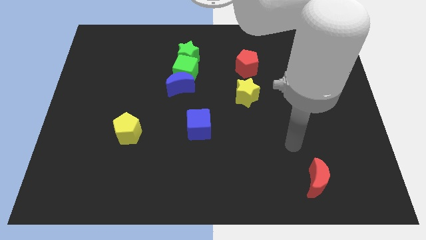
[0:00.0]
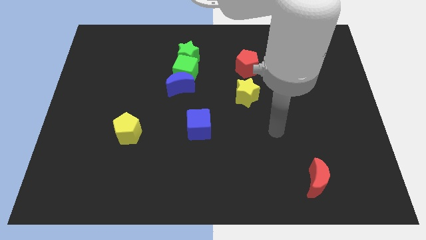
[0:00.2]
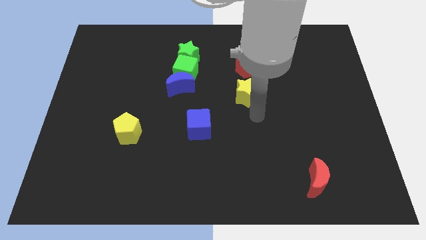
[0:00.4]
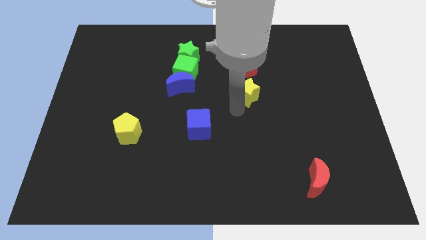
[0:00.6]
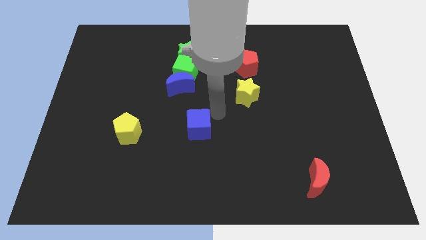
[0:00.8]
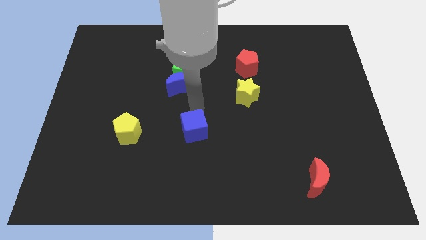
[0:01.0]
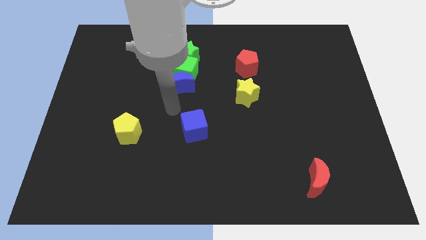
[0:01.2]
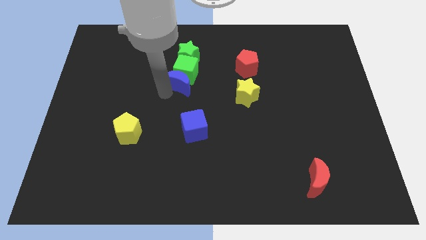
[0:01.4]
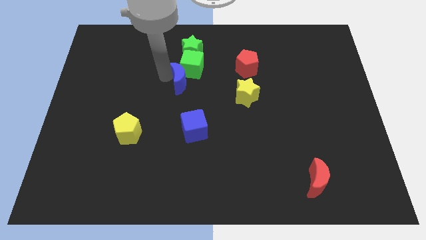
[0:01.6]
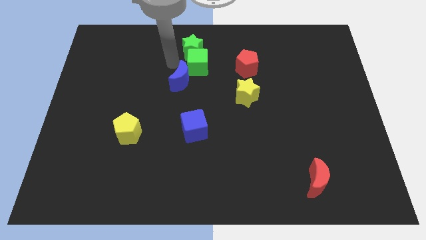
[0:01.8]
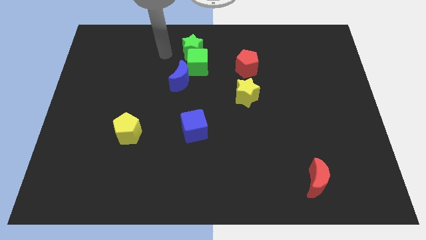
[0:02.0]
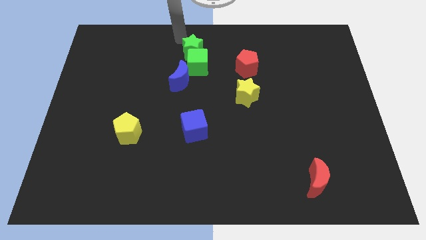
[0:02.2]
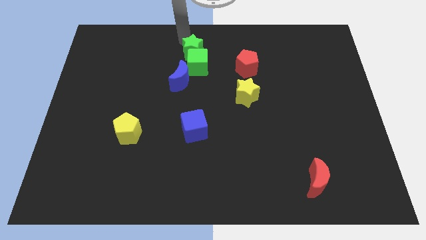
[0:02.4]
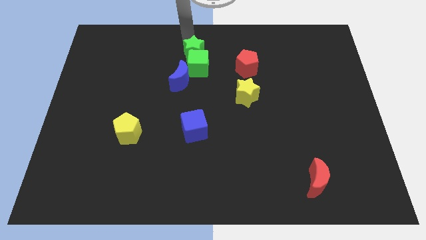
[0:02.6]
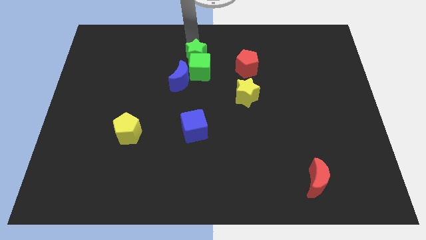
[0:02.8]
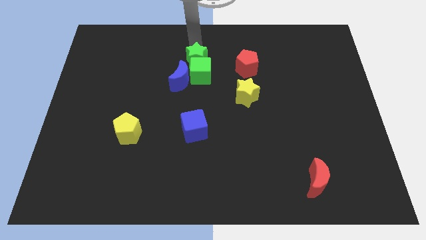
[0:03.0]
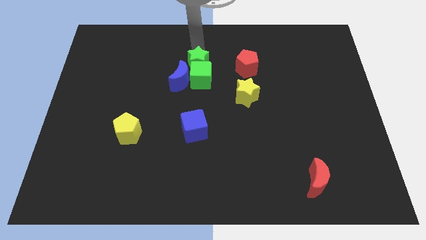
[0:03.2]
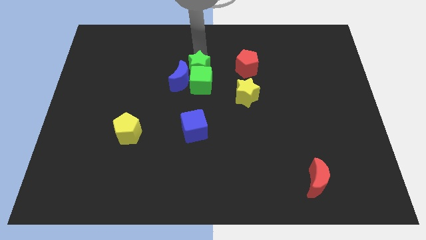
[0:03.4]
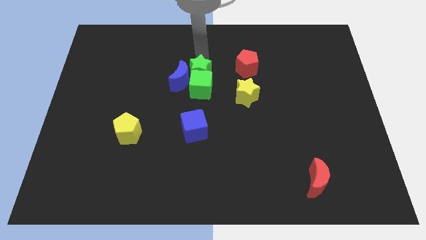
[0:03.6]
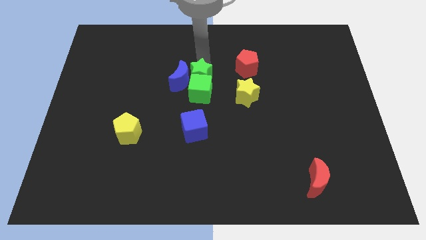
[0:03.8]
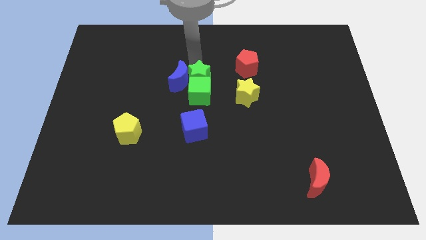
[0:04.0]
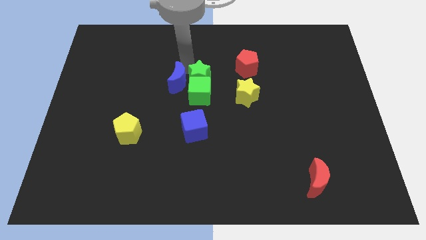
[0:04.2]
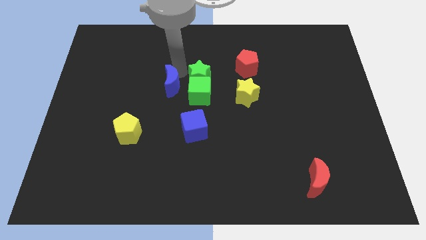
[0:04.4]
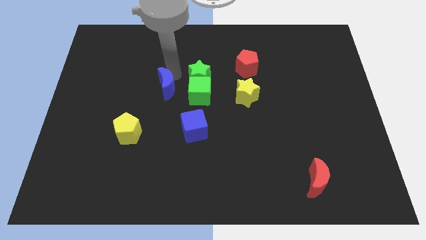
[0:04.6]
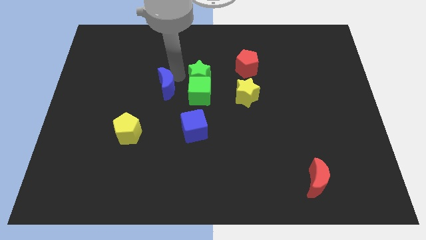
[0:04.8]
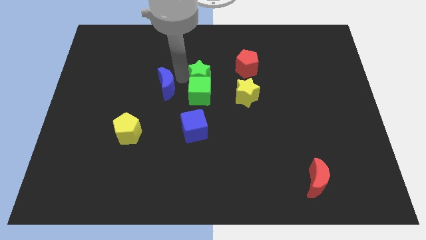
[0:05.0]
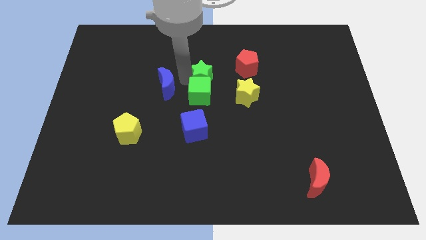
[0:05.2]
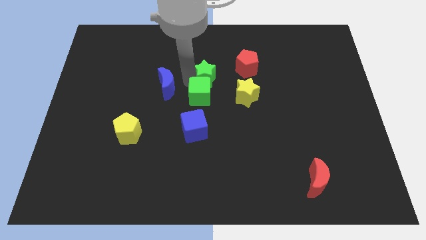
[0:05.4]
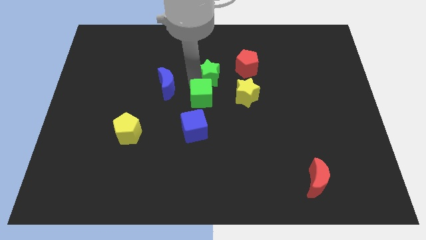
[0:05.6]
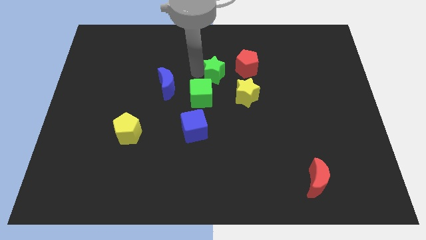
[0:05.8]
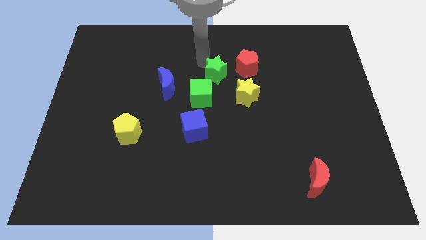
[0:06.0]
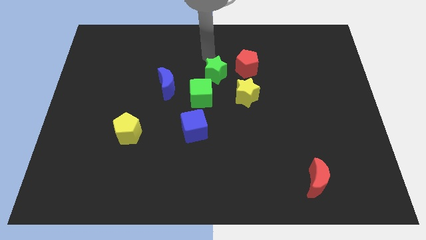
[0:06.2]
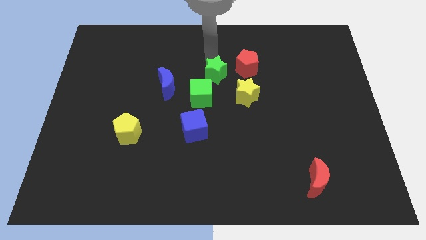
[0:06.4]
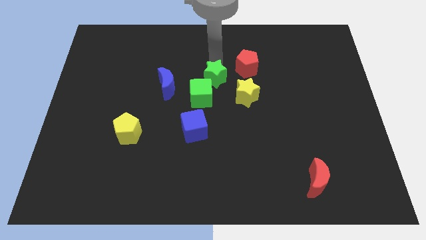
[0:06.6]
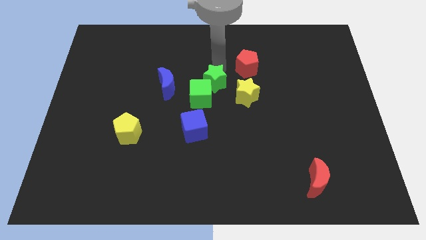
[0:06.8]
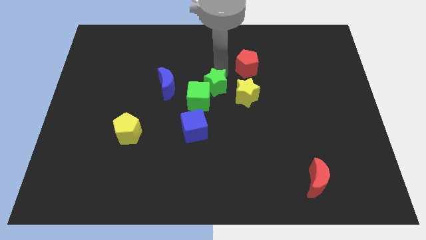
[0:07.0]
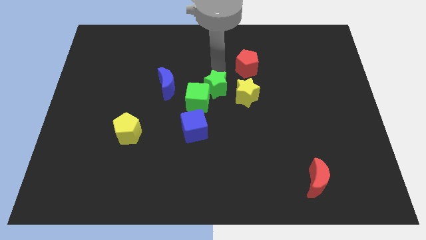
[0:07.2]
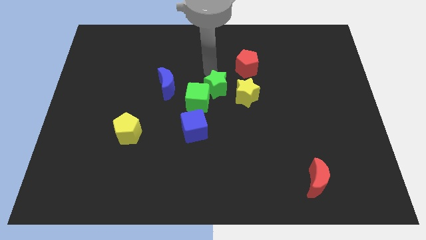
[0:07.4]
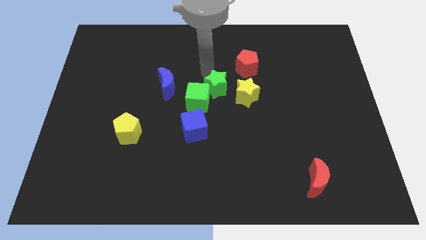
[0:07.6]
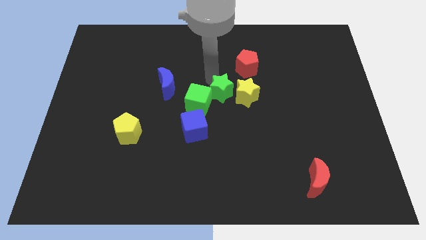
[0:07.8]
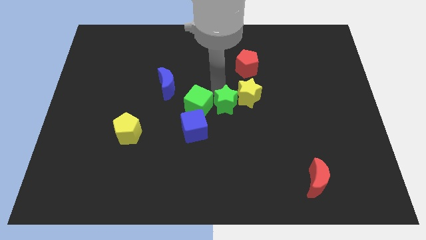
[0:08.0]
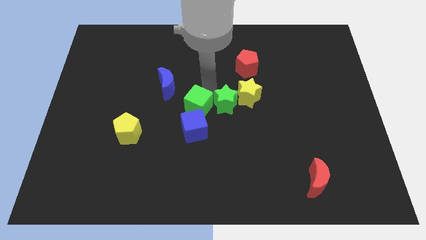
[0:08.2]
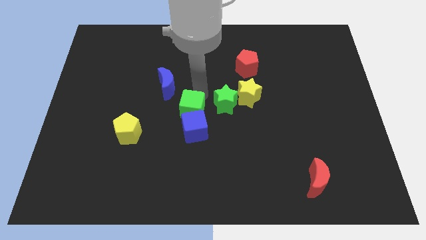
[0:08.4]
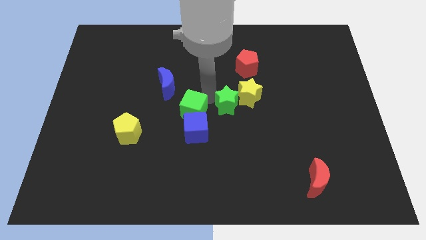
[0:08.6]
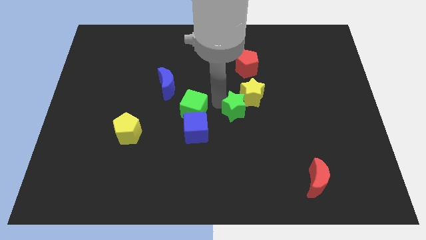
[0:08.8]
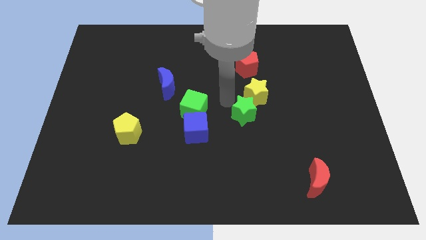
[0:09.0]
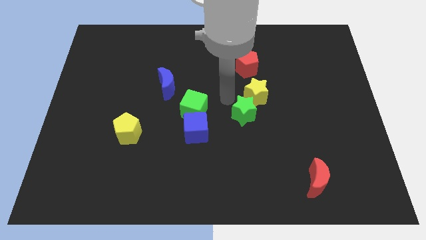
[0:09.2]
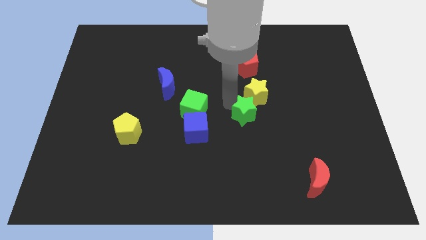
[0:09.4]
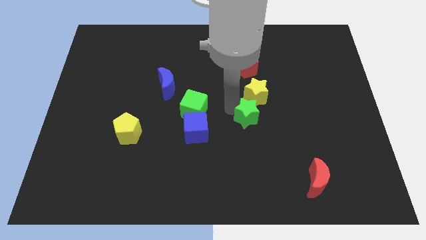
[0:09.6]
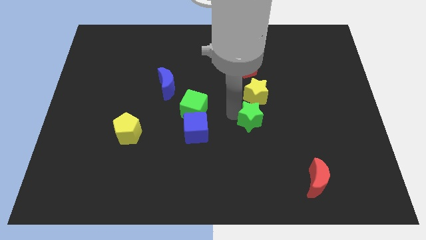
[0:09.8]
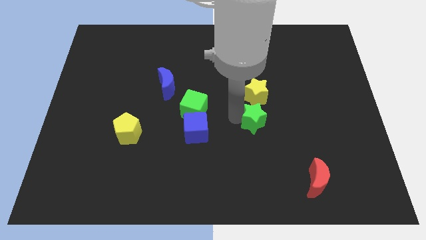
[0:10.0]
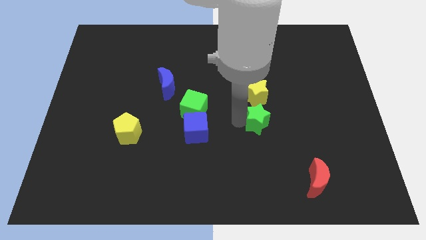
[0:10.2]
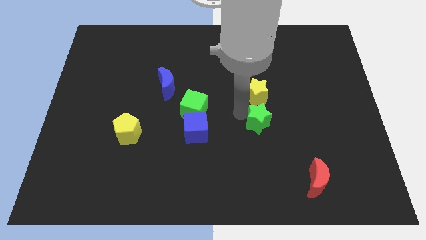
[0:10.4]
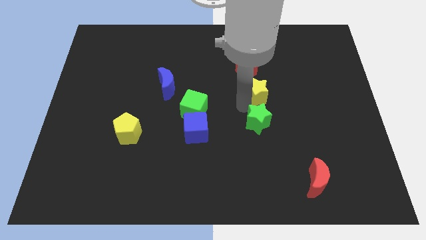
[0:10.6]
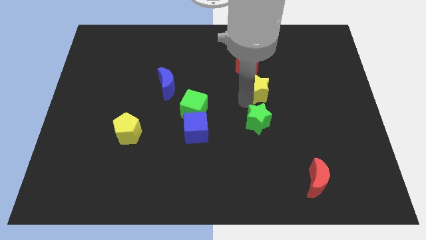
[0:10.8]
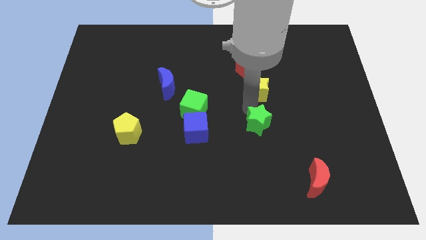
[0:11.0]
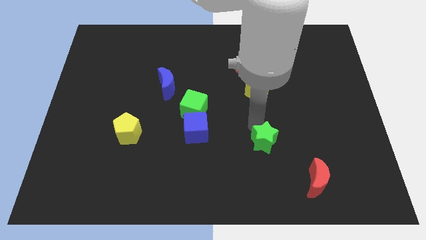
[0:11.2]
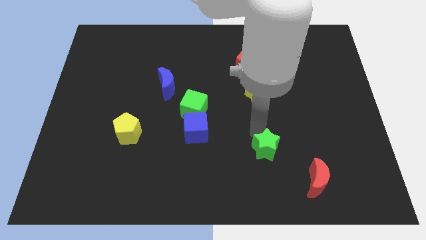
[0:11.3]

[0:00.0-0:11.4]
slide the green star diagonally up and to the left of the red moon

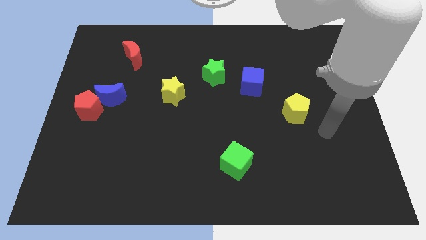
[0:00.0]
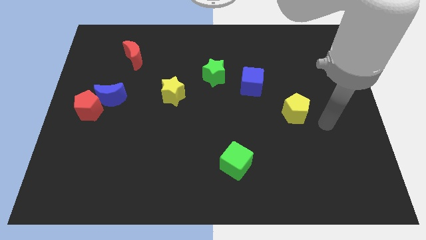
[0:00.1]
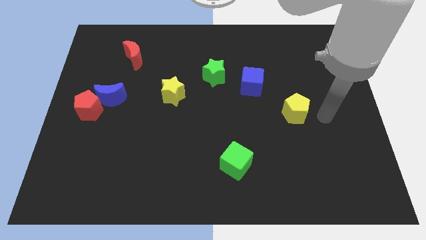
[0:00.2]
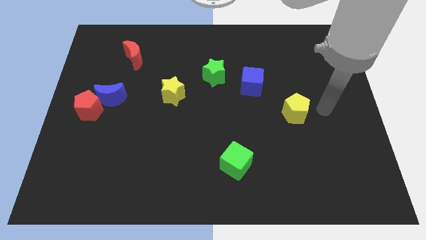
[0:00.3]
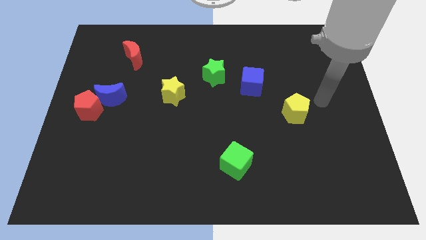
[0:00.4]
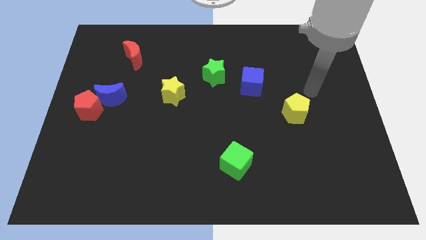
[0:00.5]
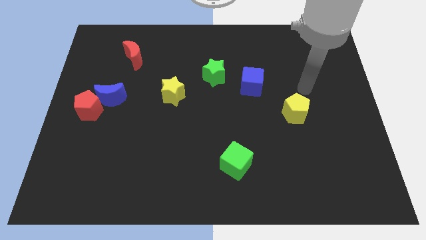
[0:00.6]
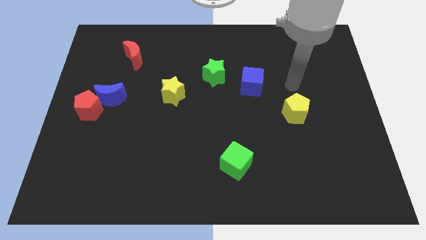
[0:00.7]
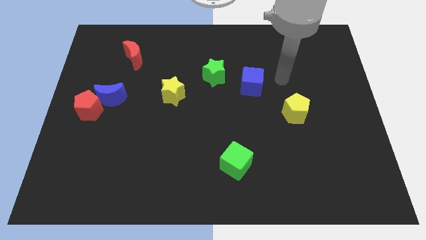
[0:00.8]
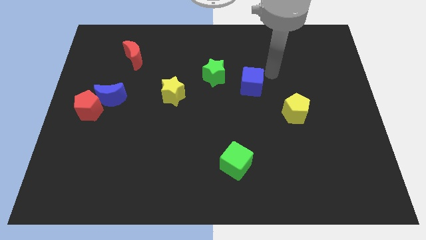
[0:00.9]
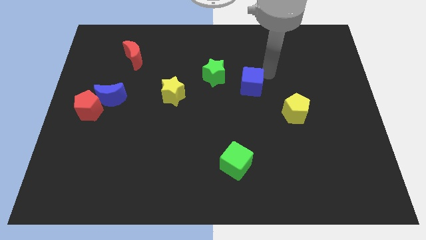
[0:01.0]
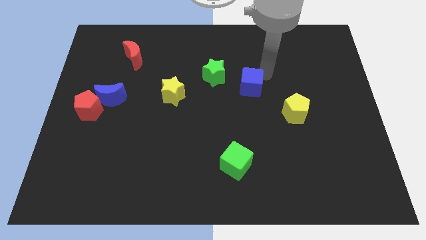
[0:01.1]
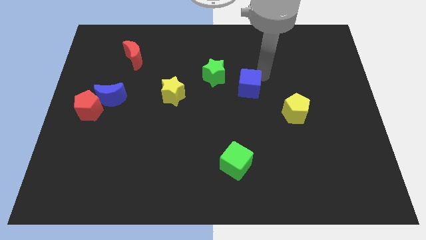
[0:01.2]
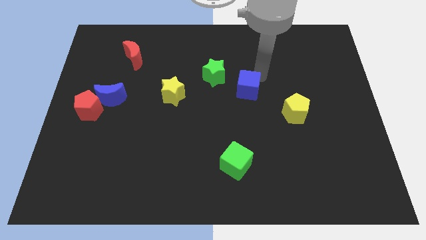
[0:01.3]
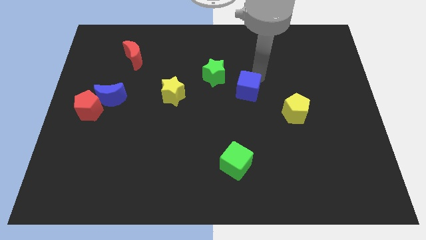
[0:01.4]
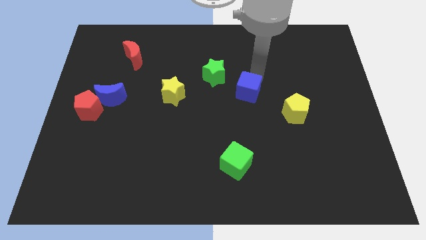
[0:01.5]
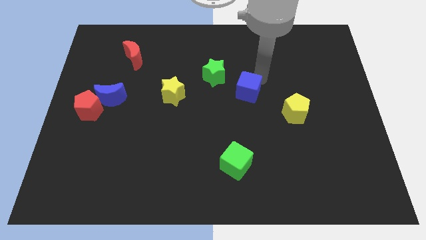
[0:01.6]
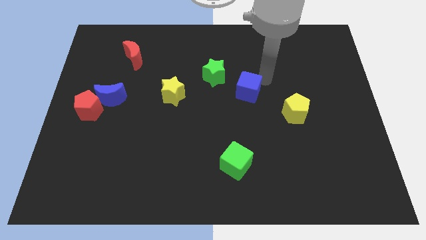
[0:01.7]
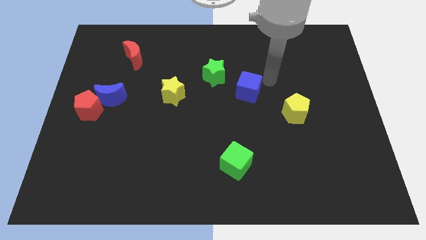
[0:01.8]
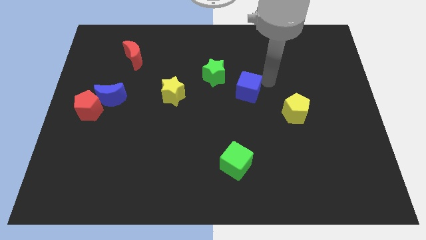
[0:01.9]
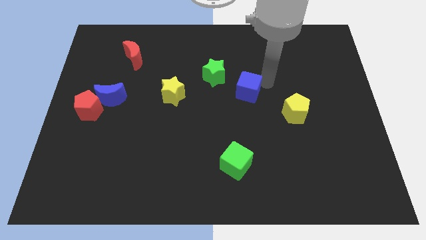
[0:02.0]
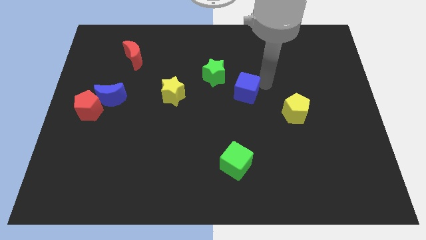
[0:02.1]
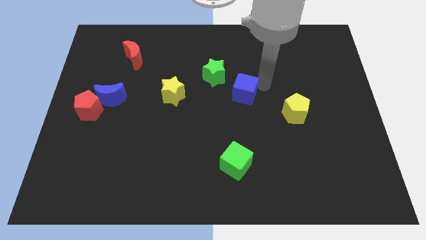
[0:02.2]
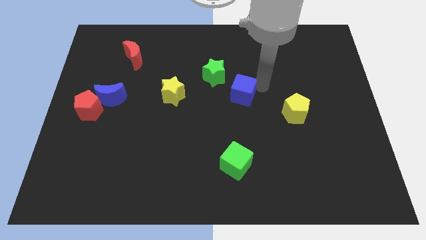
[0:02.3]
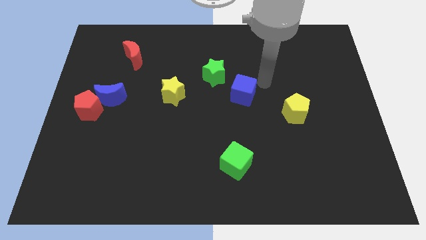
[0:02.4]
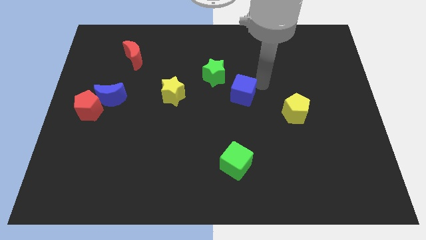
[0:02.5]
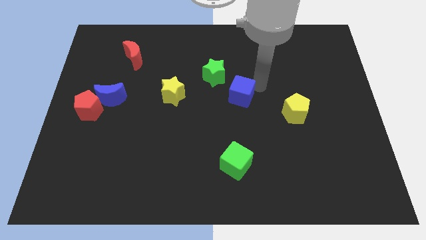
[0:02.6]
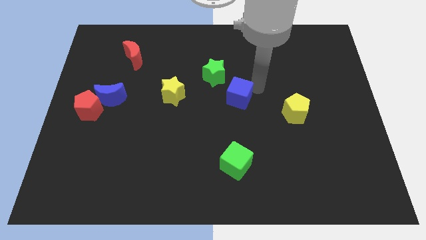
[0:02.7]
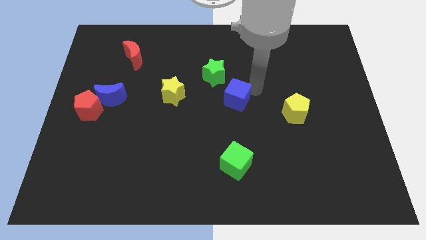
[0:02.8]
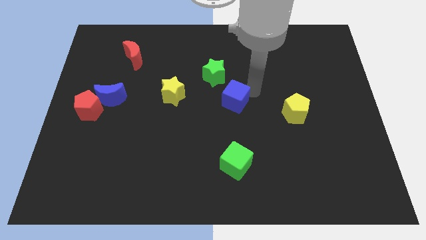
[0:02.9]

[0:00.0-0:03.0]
slide the blue cube below the green star
